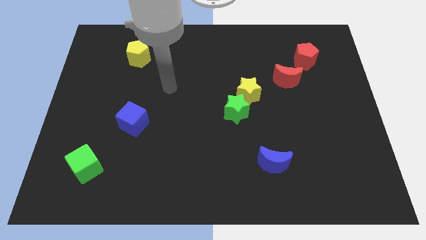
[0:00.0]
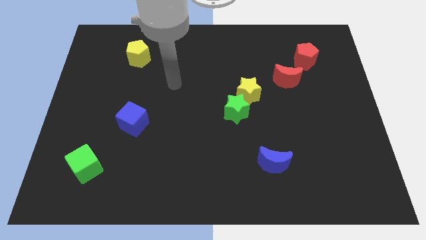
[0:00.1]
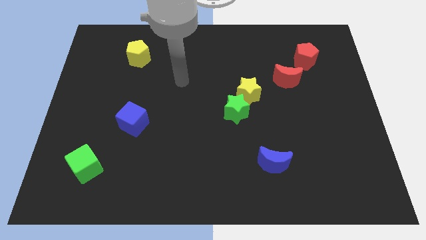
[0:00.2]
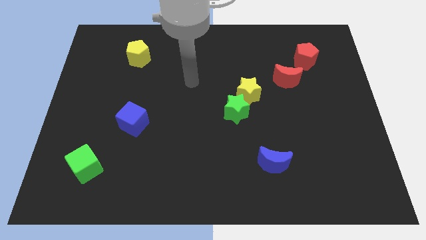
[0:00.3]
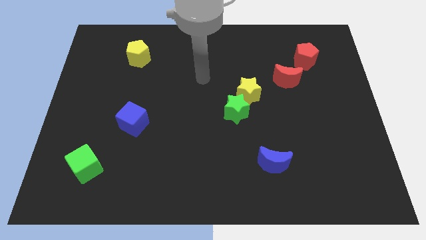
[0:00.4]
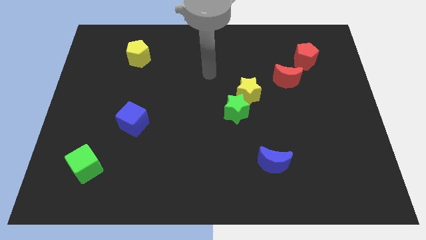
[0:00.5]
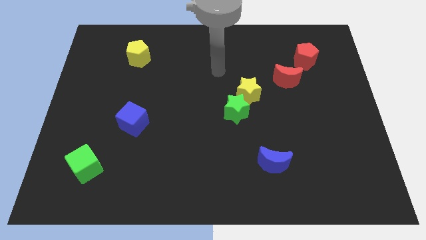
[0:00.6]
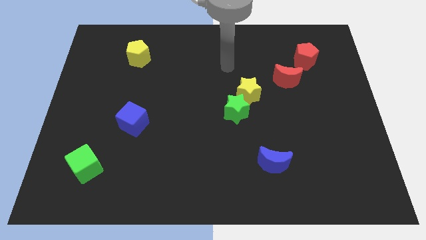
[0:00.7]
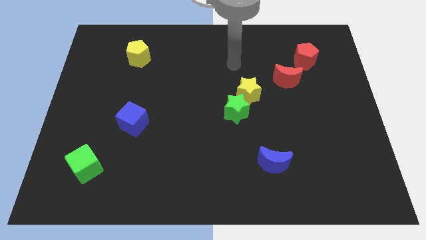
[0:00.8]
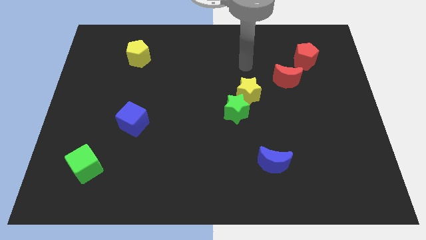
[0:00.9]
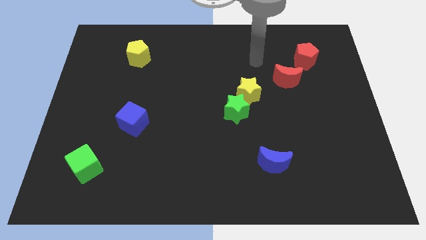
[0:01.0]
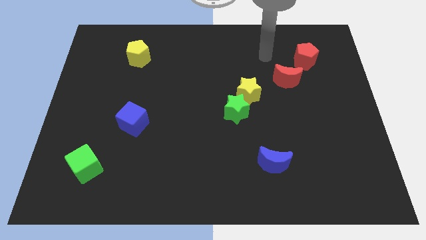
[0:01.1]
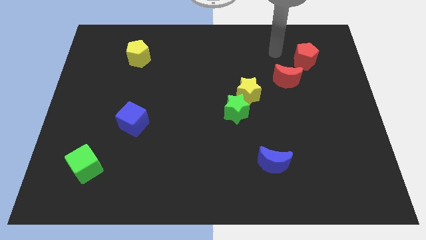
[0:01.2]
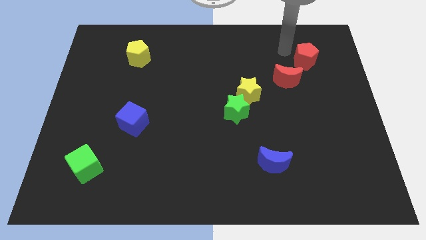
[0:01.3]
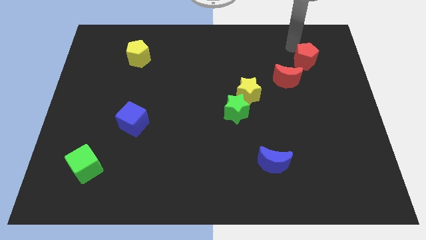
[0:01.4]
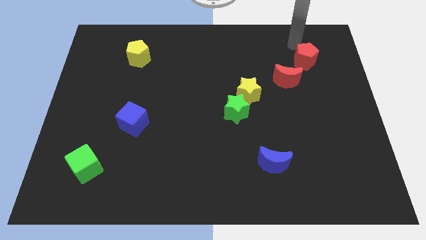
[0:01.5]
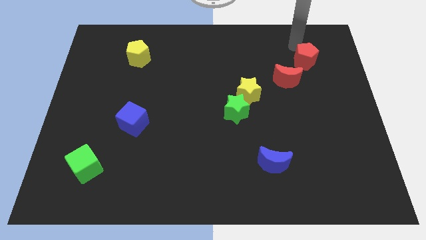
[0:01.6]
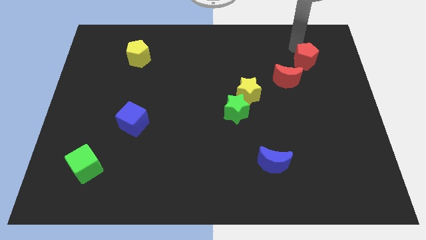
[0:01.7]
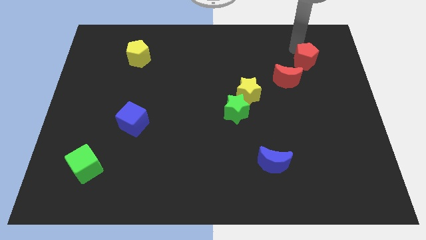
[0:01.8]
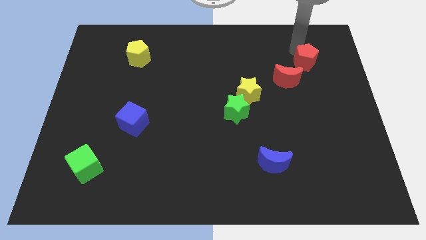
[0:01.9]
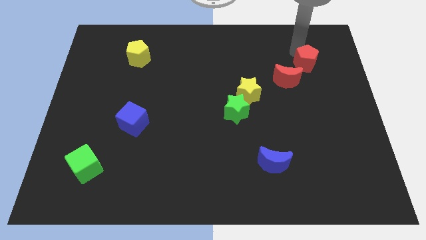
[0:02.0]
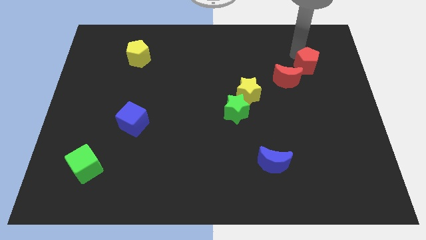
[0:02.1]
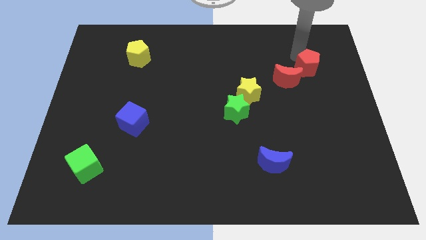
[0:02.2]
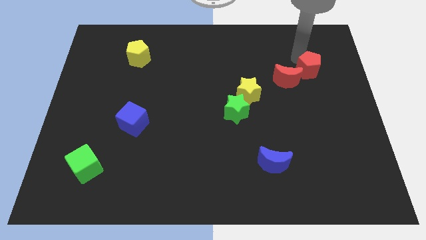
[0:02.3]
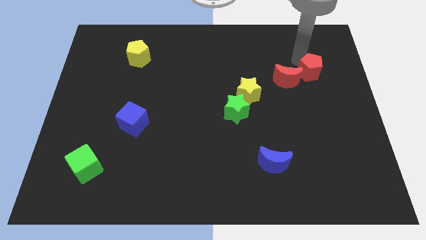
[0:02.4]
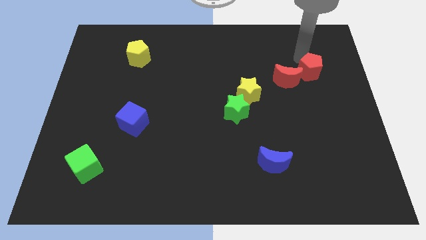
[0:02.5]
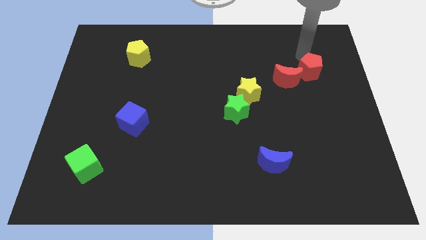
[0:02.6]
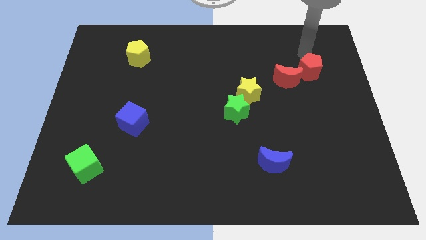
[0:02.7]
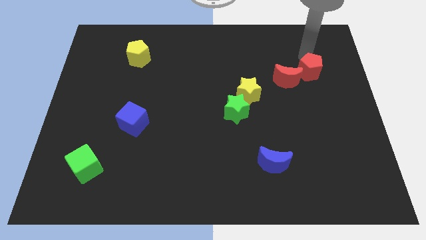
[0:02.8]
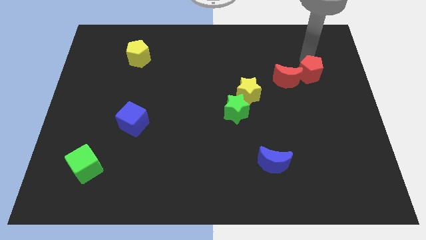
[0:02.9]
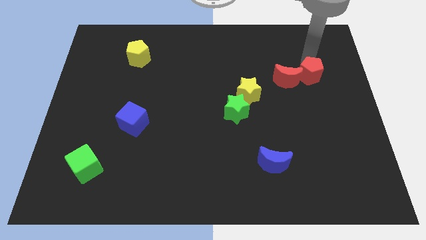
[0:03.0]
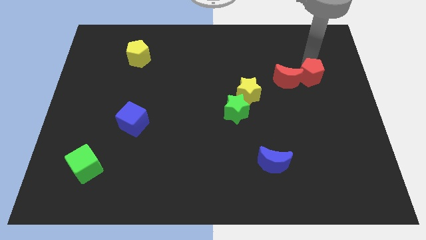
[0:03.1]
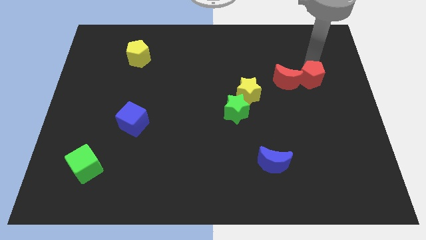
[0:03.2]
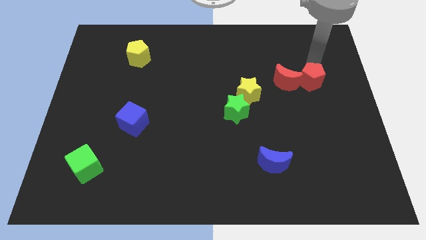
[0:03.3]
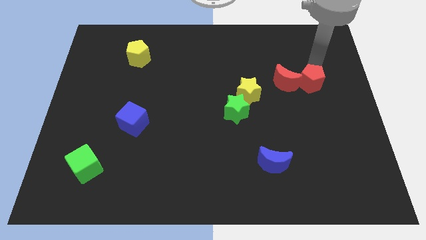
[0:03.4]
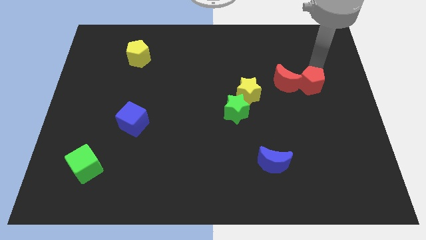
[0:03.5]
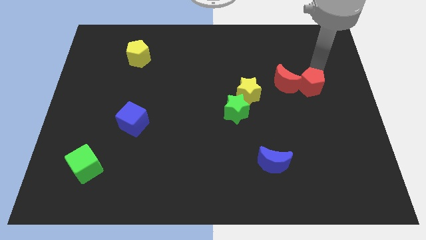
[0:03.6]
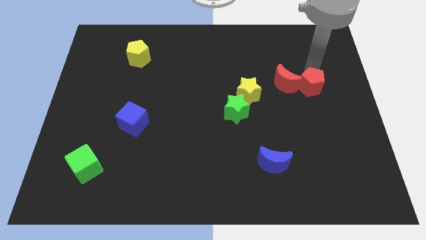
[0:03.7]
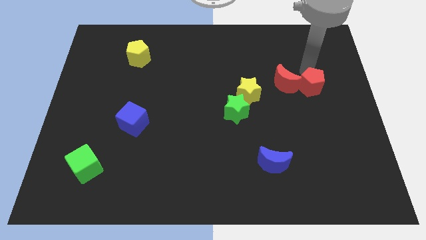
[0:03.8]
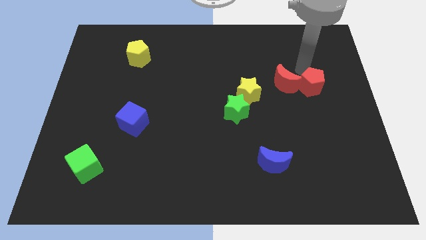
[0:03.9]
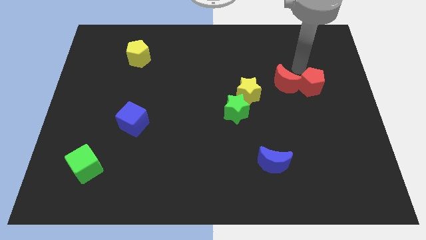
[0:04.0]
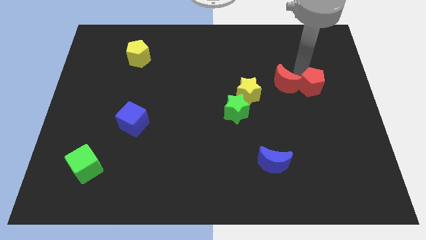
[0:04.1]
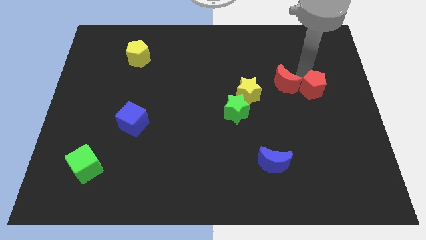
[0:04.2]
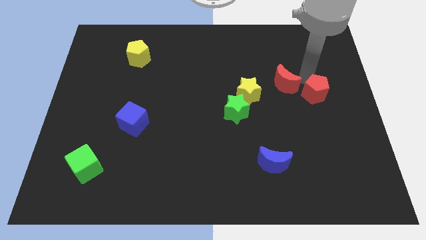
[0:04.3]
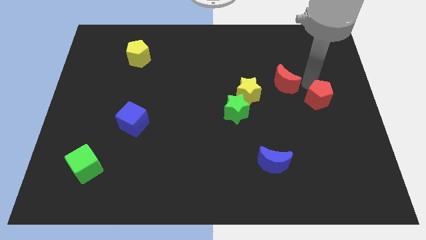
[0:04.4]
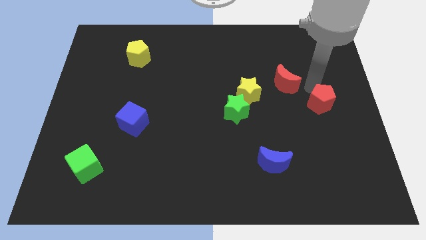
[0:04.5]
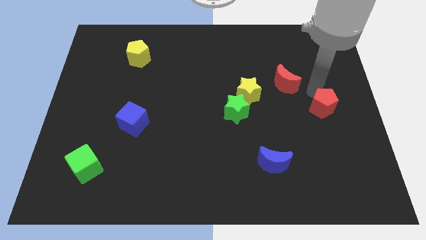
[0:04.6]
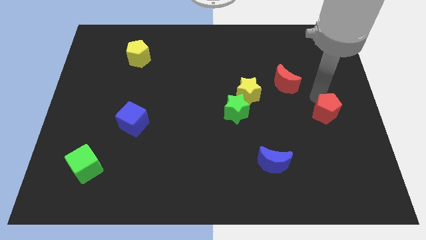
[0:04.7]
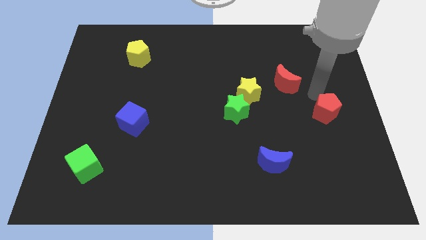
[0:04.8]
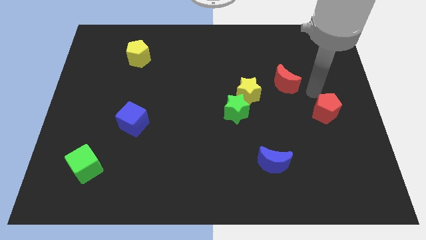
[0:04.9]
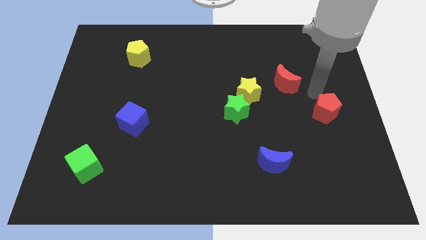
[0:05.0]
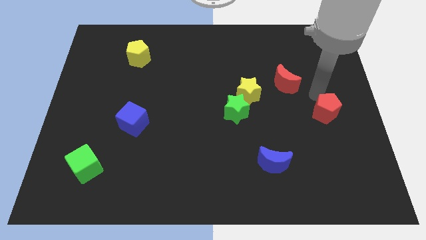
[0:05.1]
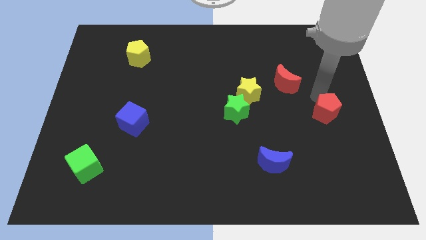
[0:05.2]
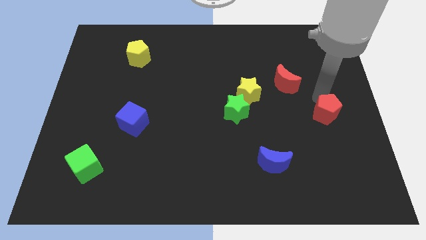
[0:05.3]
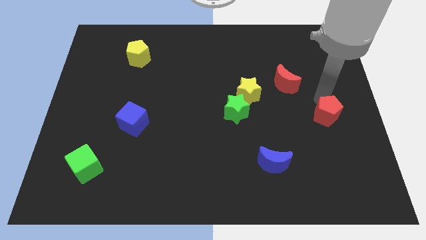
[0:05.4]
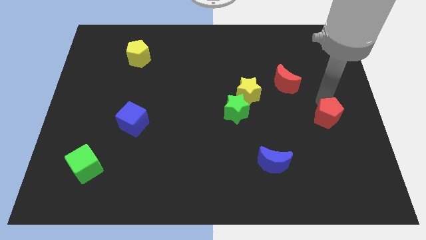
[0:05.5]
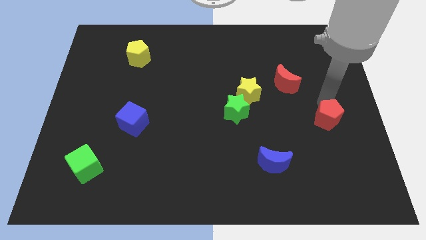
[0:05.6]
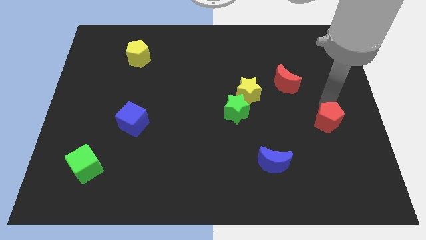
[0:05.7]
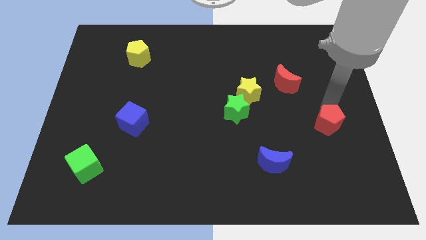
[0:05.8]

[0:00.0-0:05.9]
slide the red pentagon downwards

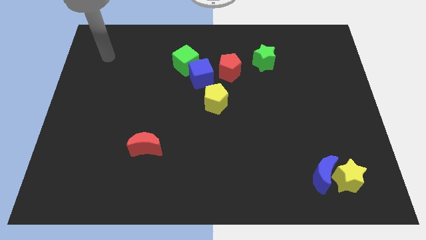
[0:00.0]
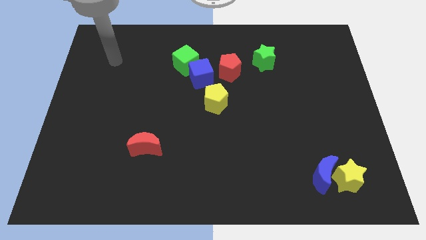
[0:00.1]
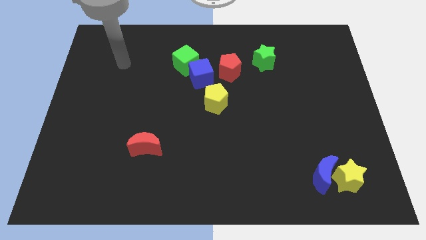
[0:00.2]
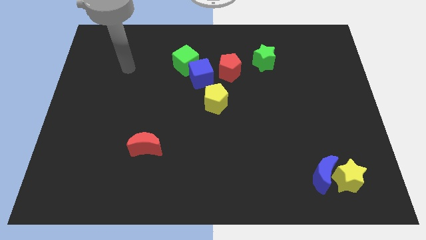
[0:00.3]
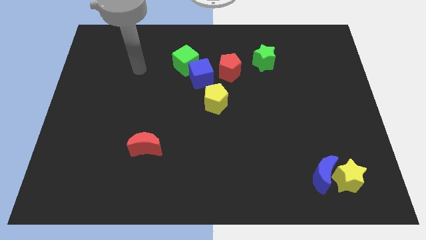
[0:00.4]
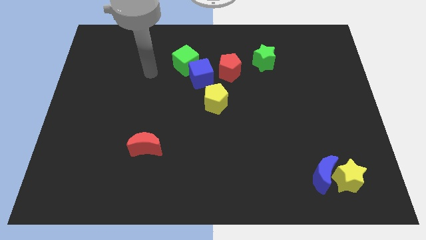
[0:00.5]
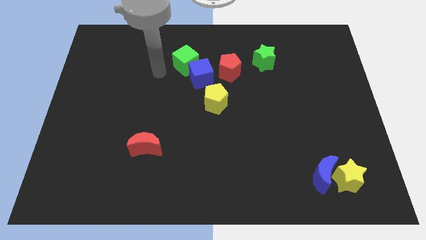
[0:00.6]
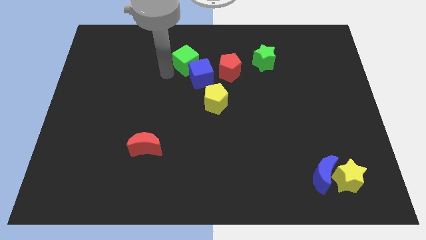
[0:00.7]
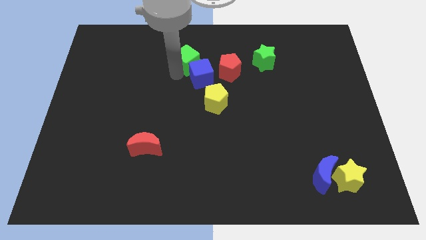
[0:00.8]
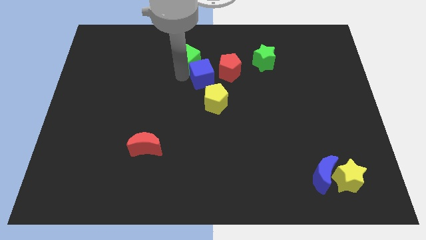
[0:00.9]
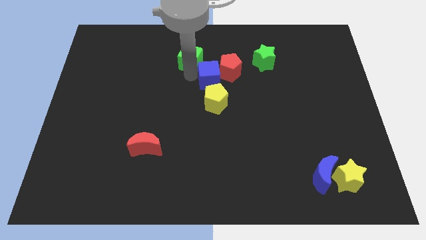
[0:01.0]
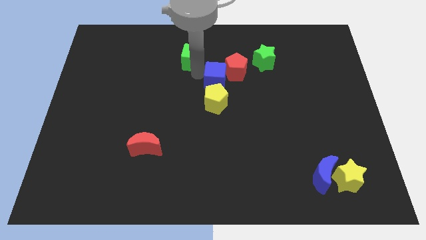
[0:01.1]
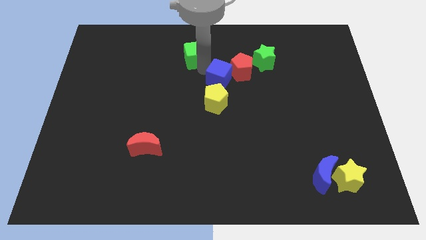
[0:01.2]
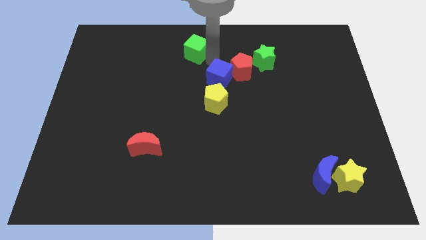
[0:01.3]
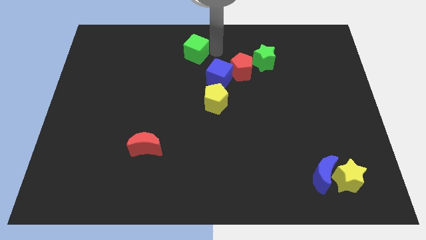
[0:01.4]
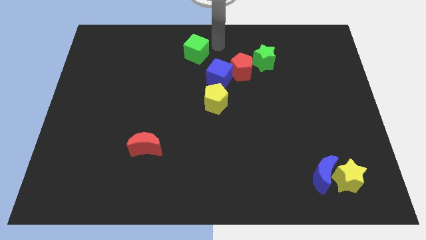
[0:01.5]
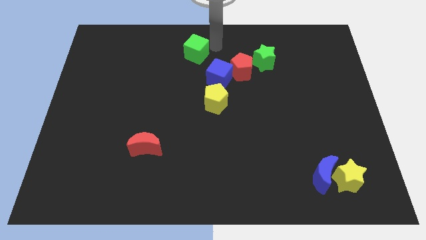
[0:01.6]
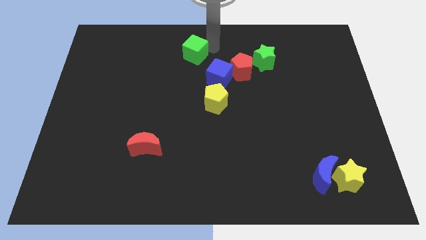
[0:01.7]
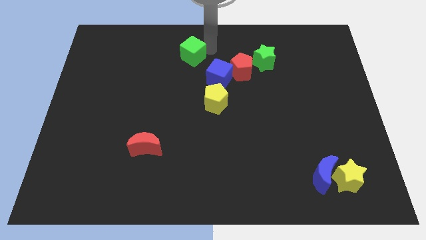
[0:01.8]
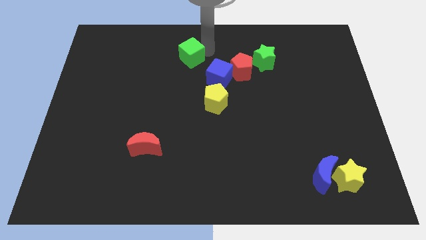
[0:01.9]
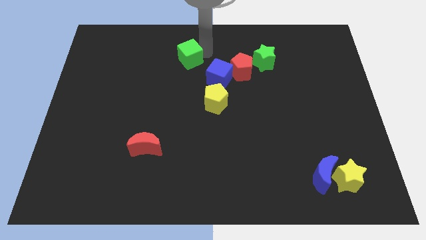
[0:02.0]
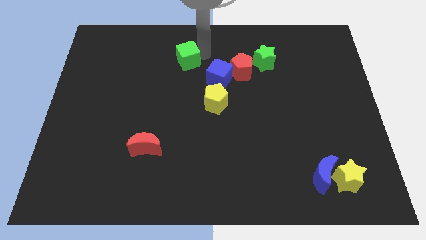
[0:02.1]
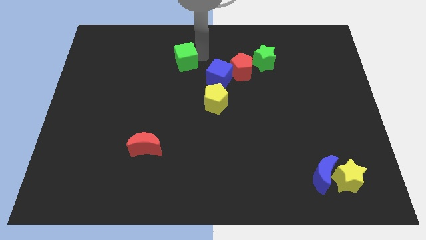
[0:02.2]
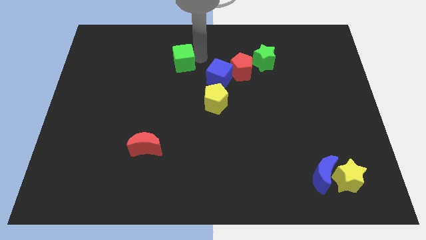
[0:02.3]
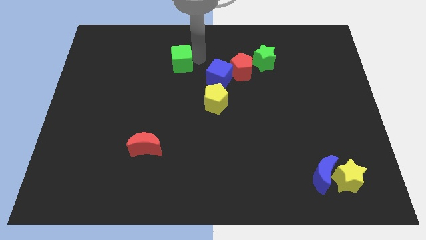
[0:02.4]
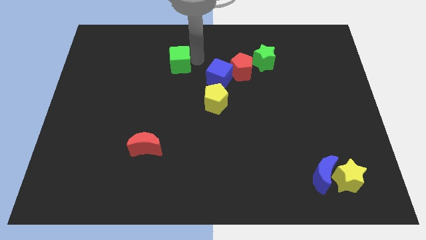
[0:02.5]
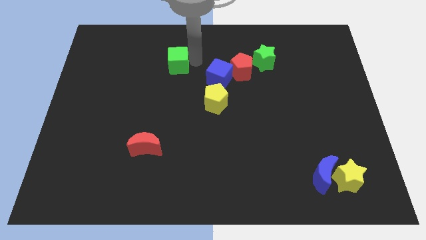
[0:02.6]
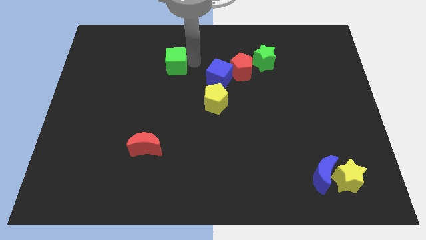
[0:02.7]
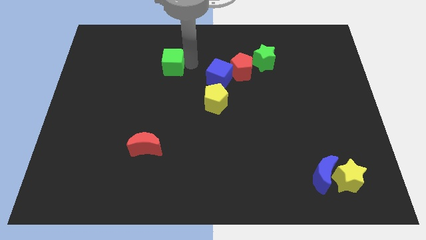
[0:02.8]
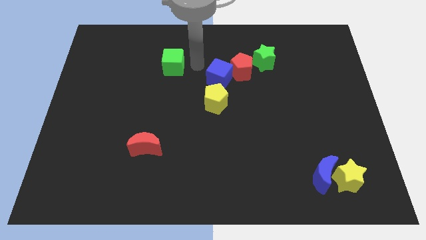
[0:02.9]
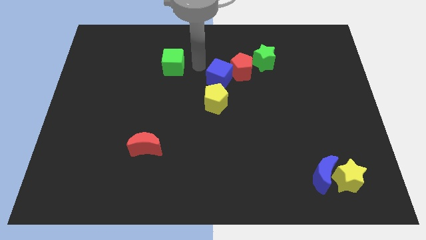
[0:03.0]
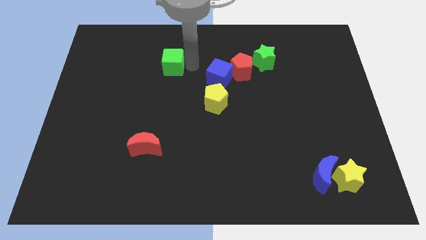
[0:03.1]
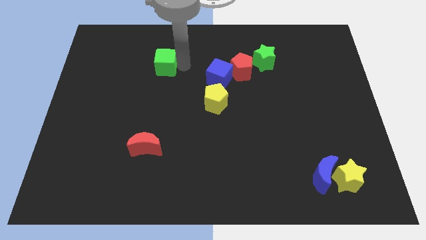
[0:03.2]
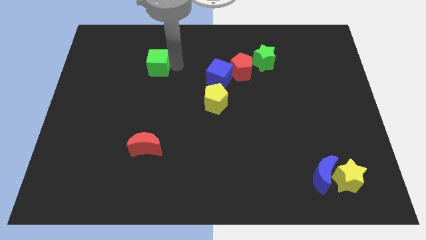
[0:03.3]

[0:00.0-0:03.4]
slide the green cube a little to the left
